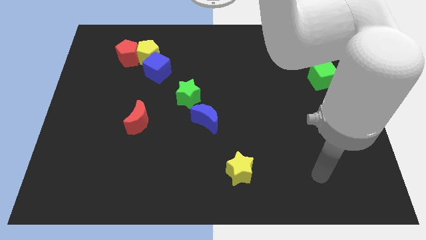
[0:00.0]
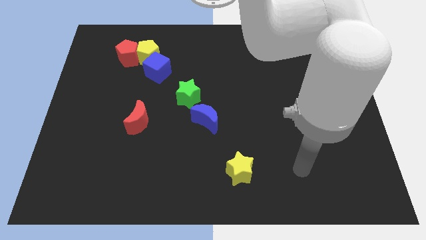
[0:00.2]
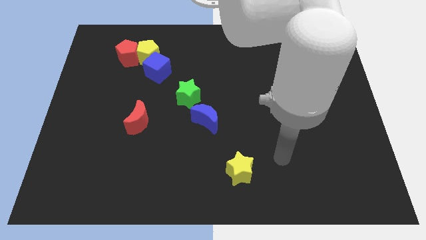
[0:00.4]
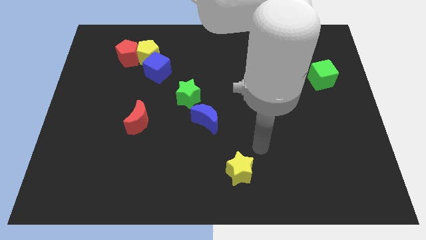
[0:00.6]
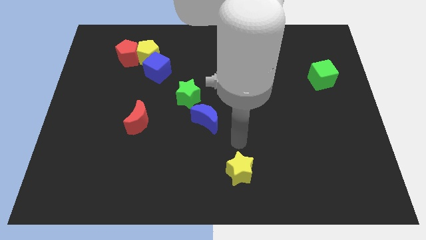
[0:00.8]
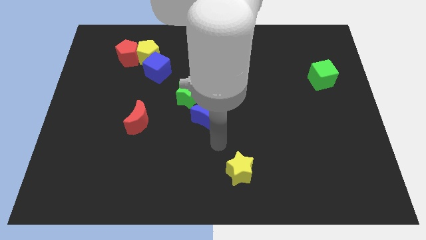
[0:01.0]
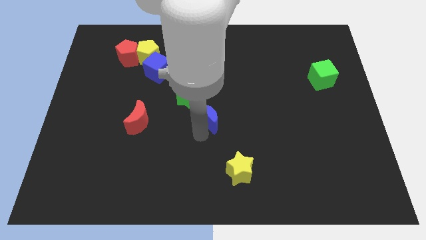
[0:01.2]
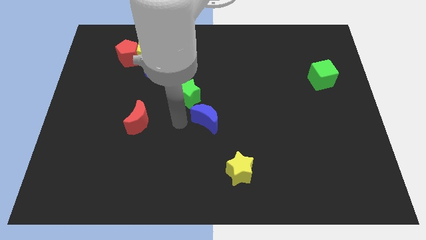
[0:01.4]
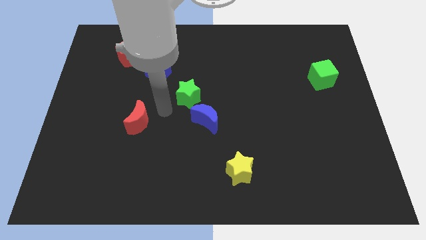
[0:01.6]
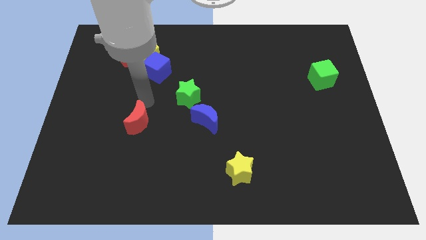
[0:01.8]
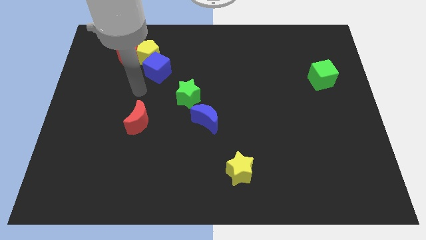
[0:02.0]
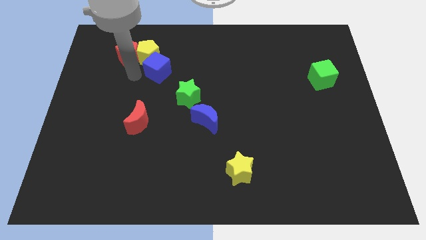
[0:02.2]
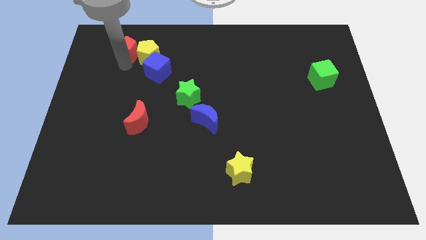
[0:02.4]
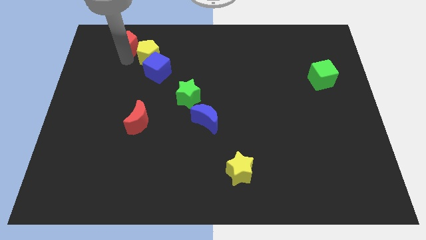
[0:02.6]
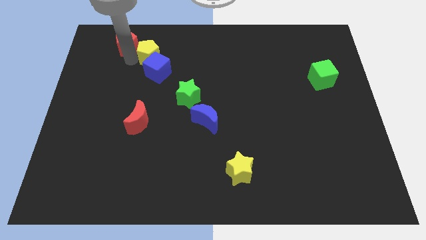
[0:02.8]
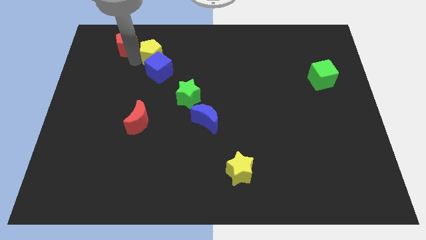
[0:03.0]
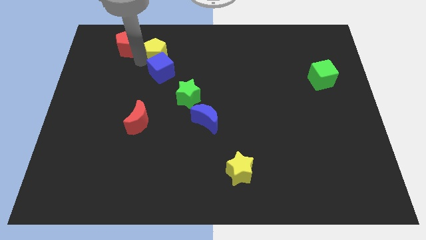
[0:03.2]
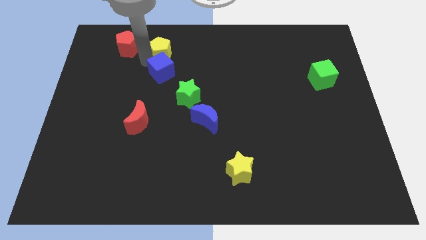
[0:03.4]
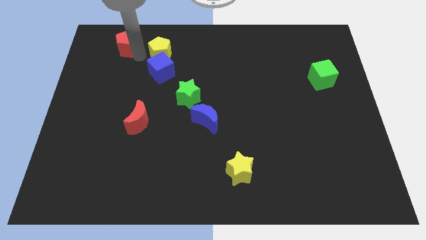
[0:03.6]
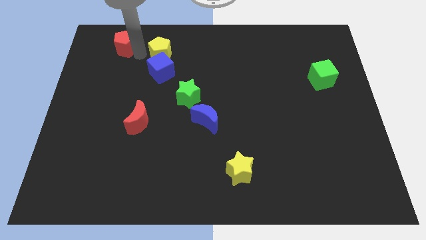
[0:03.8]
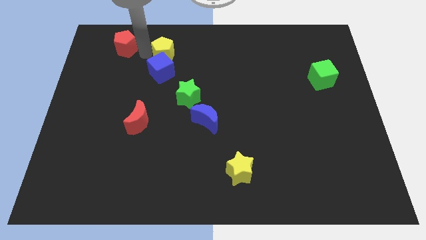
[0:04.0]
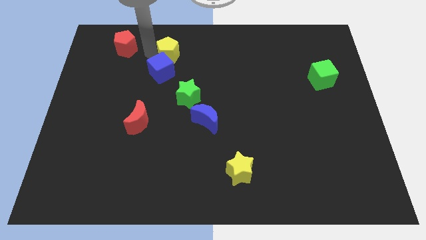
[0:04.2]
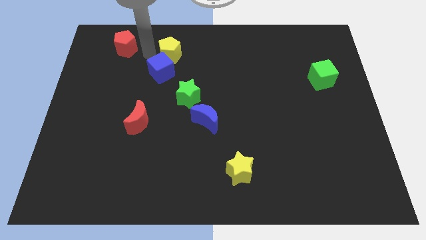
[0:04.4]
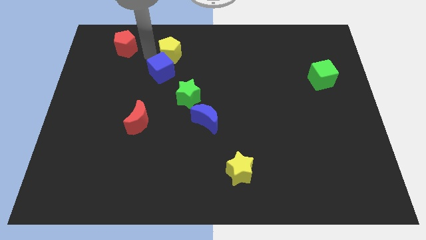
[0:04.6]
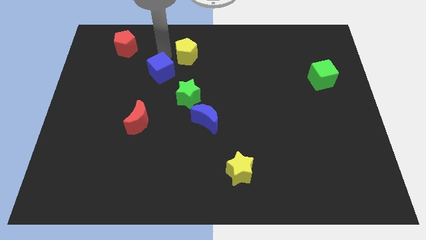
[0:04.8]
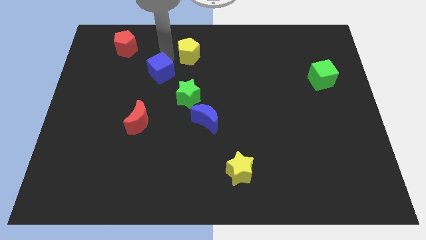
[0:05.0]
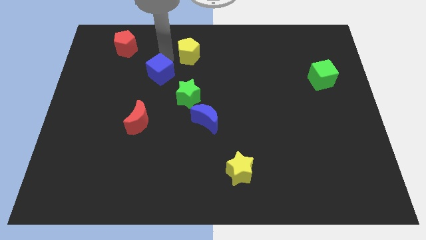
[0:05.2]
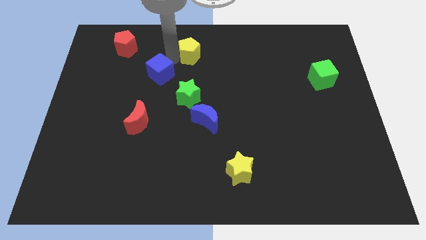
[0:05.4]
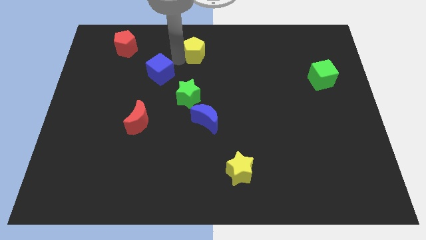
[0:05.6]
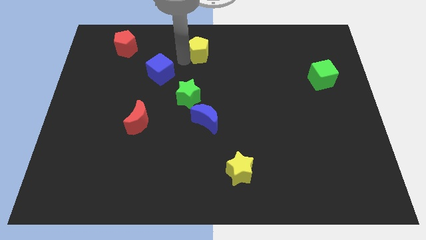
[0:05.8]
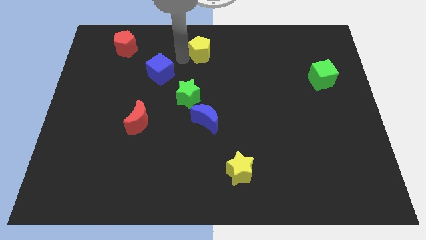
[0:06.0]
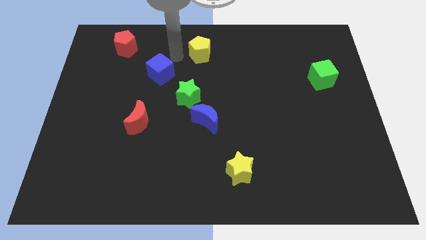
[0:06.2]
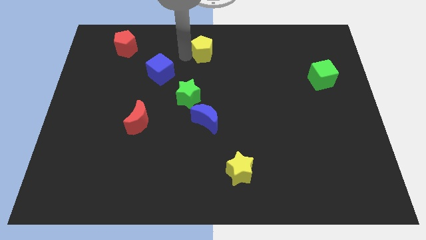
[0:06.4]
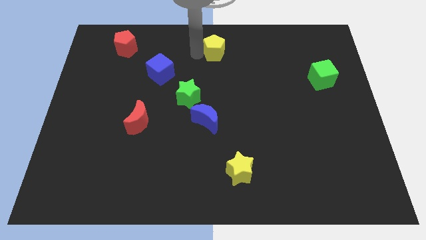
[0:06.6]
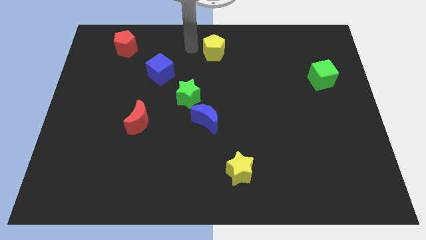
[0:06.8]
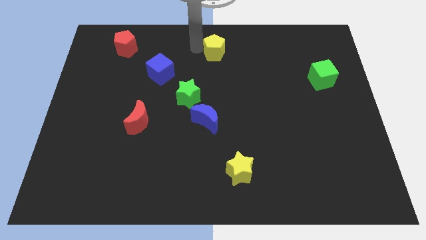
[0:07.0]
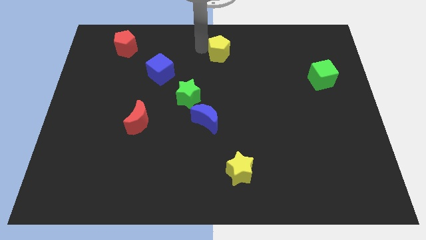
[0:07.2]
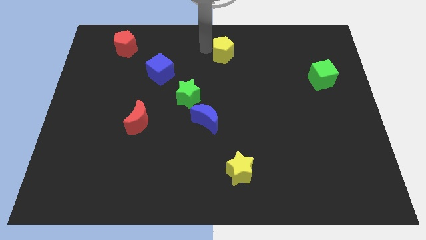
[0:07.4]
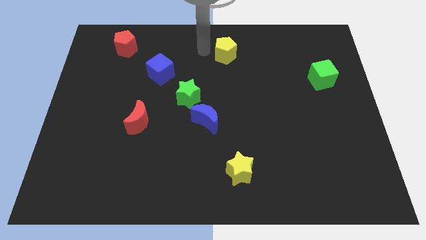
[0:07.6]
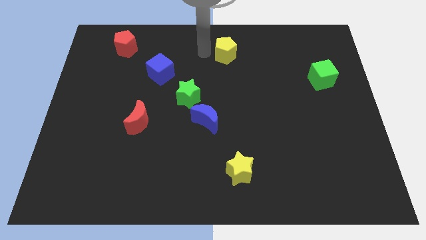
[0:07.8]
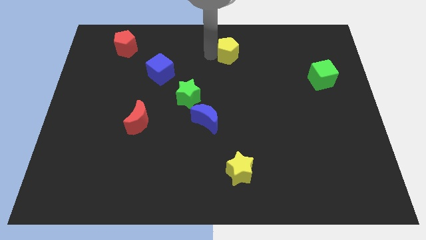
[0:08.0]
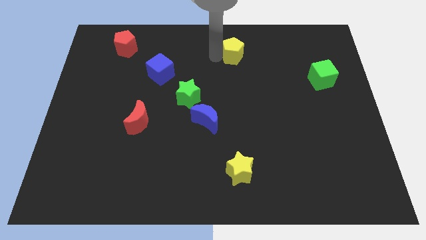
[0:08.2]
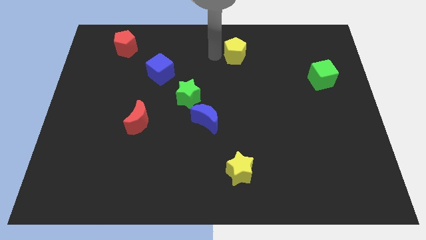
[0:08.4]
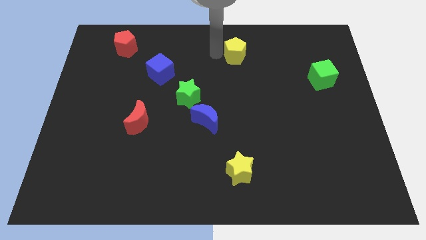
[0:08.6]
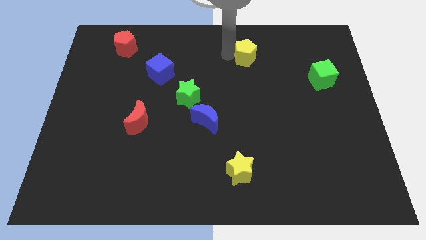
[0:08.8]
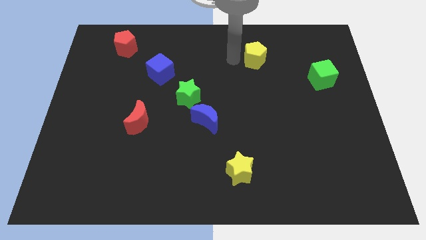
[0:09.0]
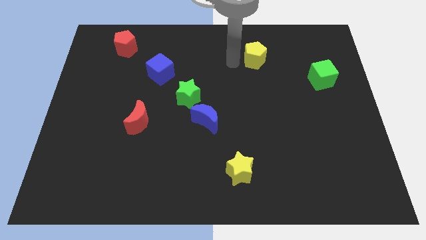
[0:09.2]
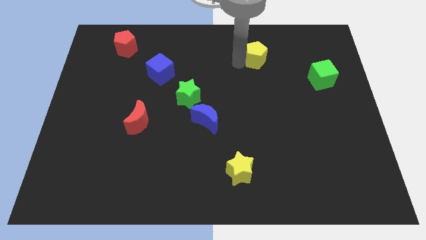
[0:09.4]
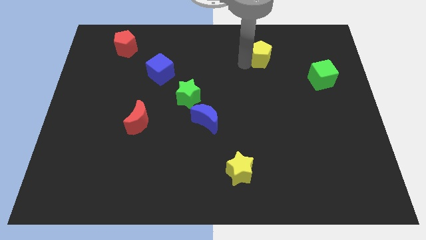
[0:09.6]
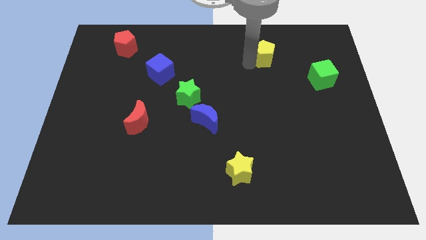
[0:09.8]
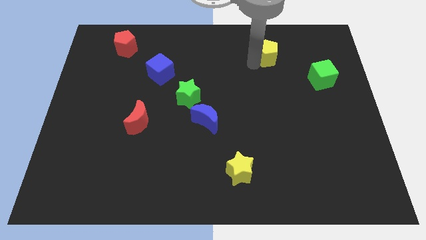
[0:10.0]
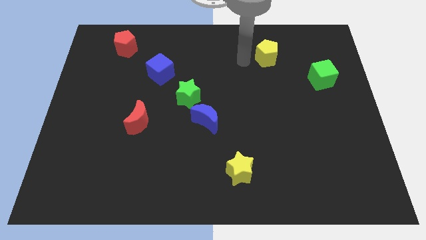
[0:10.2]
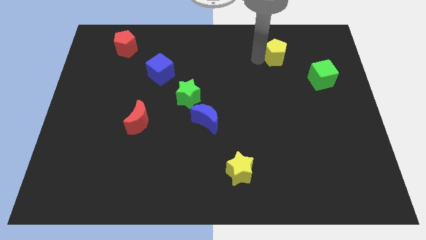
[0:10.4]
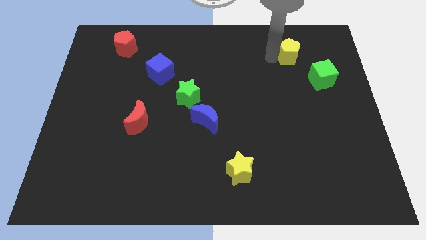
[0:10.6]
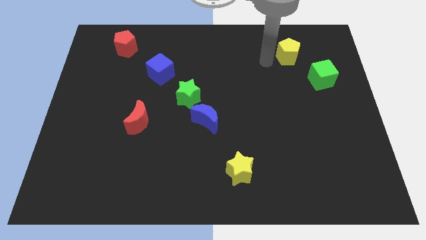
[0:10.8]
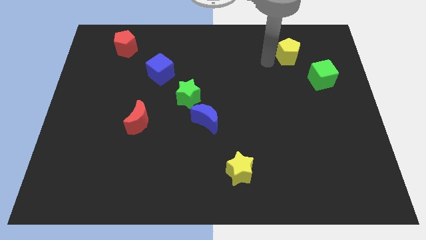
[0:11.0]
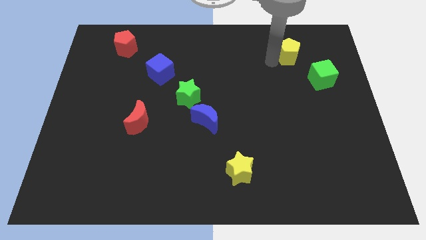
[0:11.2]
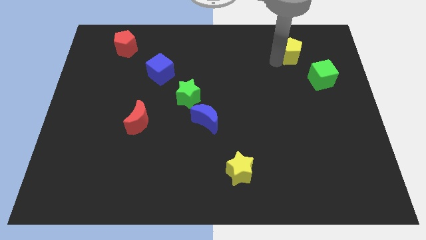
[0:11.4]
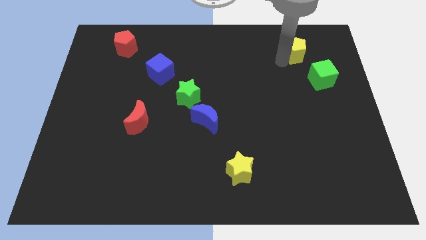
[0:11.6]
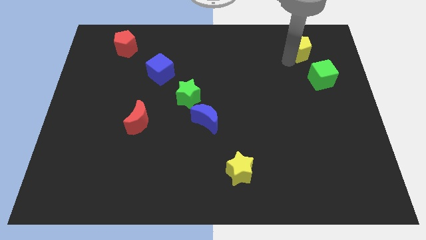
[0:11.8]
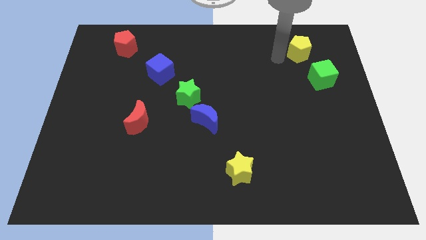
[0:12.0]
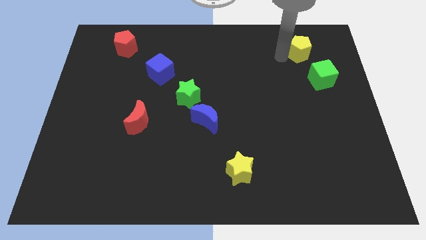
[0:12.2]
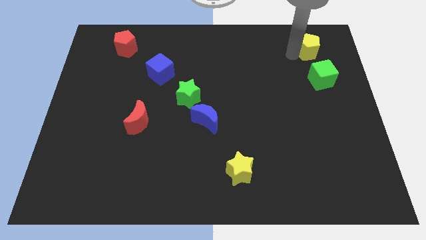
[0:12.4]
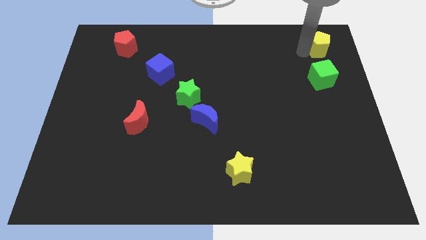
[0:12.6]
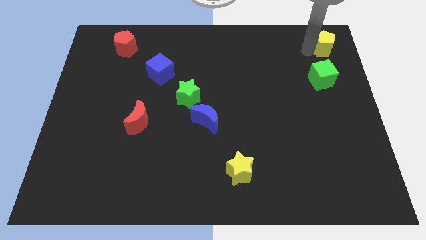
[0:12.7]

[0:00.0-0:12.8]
put the yellow pentagon to the top right
